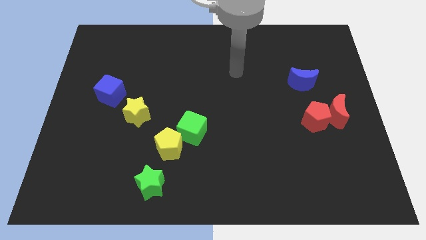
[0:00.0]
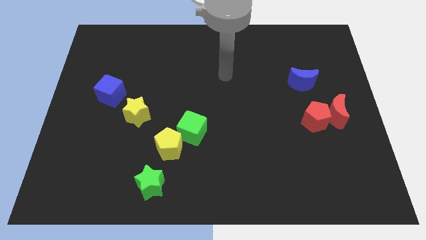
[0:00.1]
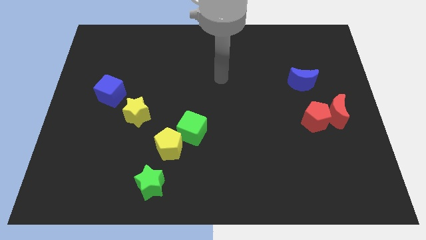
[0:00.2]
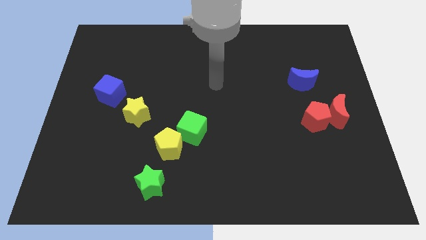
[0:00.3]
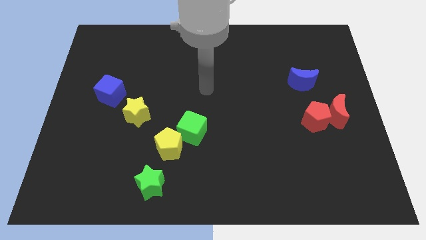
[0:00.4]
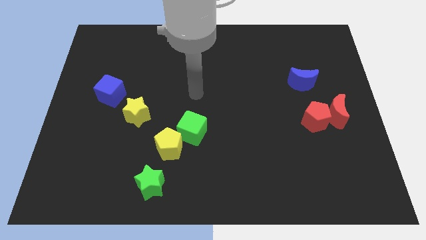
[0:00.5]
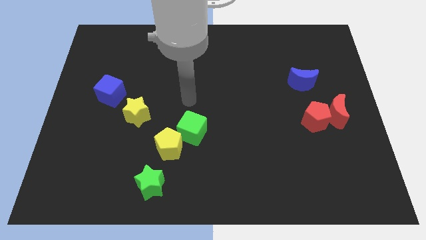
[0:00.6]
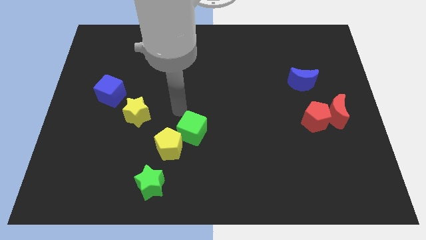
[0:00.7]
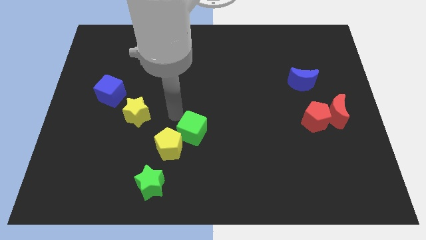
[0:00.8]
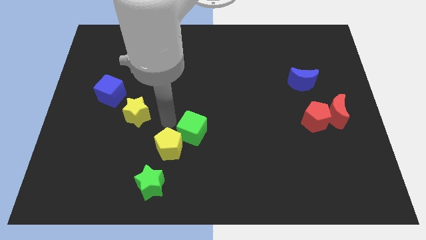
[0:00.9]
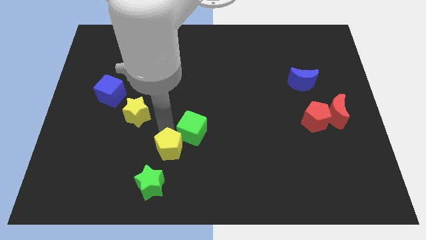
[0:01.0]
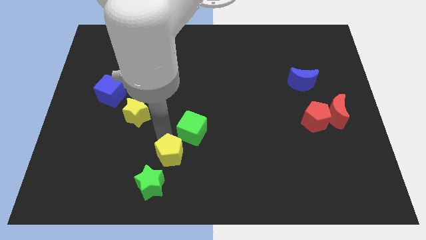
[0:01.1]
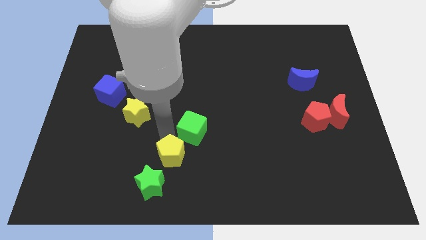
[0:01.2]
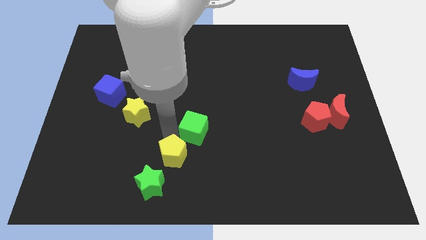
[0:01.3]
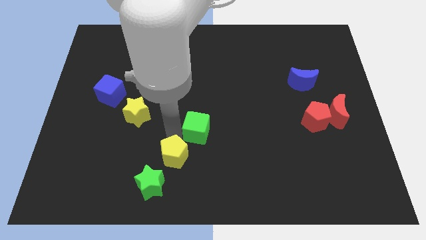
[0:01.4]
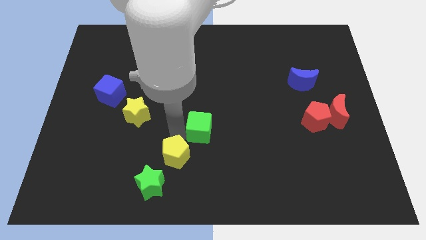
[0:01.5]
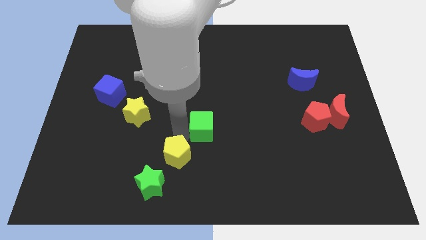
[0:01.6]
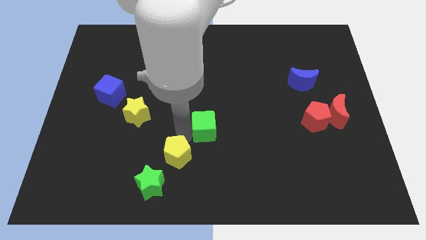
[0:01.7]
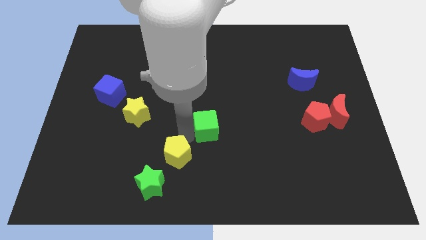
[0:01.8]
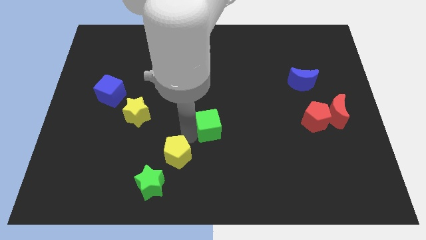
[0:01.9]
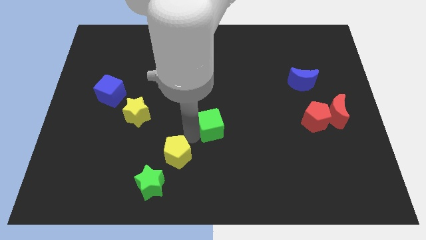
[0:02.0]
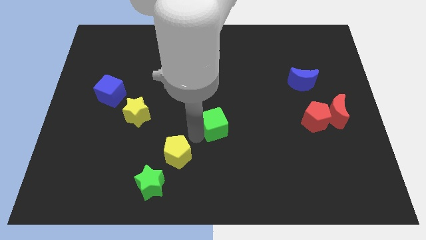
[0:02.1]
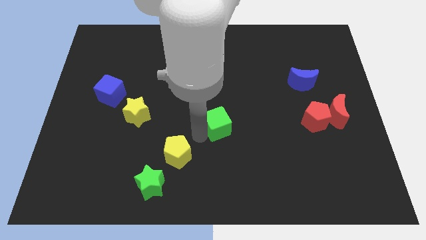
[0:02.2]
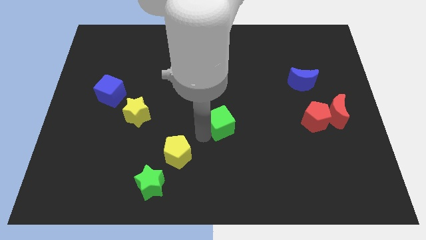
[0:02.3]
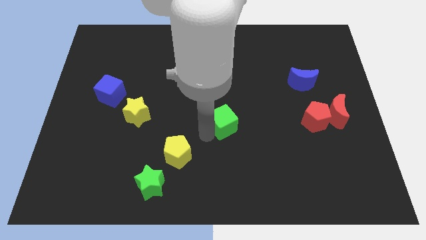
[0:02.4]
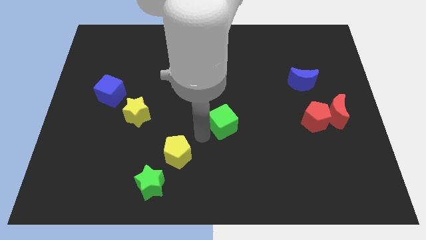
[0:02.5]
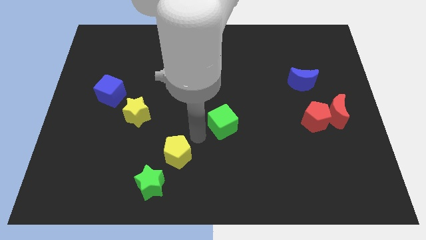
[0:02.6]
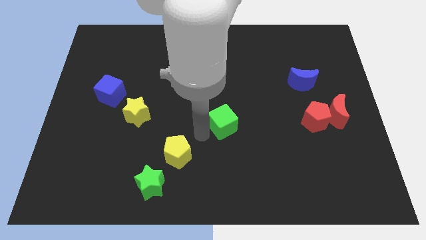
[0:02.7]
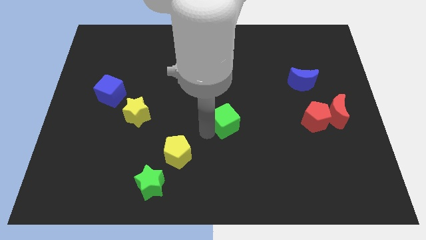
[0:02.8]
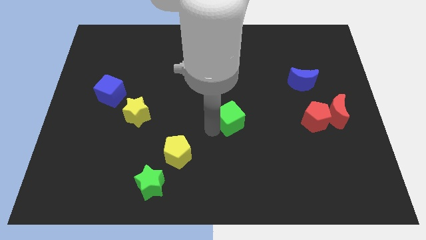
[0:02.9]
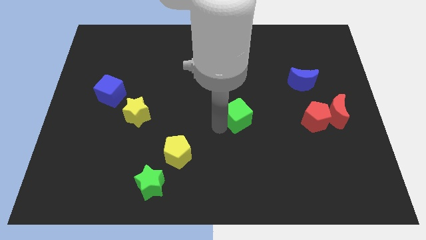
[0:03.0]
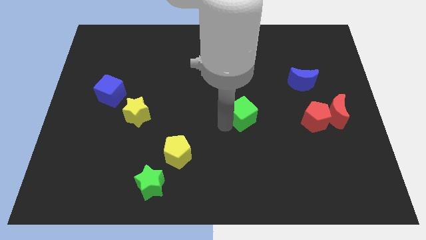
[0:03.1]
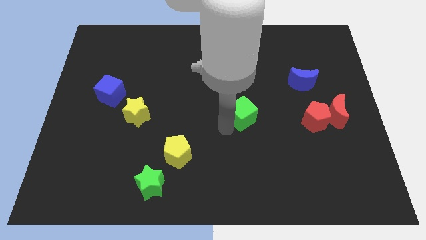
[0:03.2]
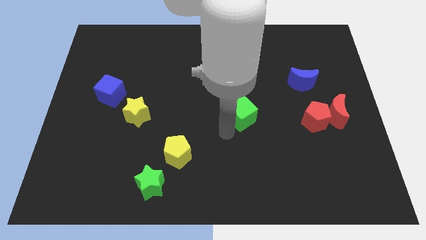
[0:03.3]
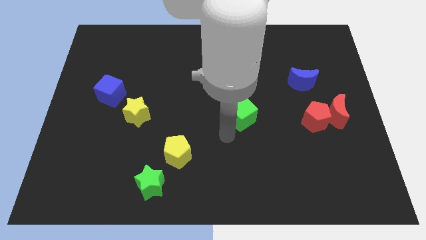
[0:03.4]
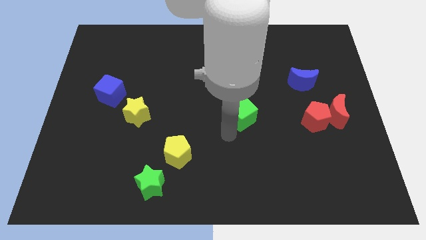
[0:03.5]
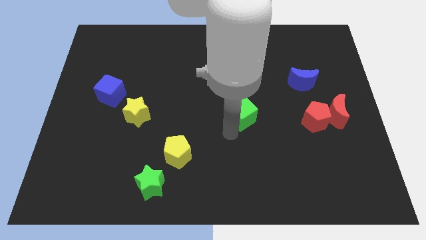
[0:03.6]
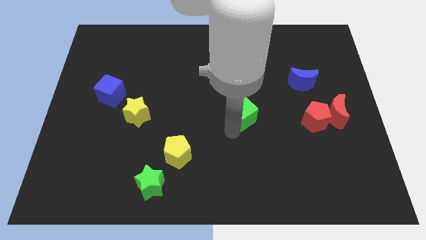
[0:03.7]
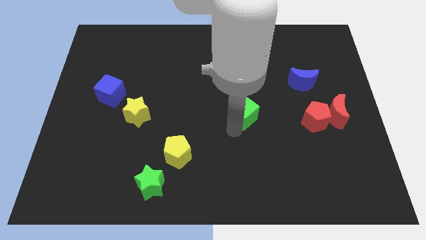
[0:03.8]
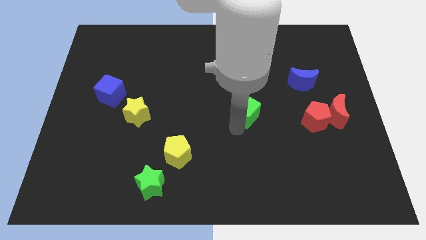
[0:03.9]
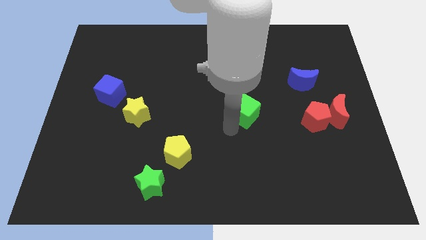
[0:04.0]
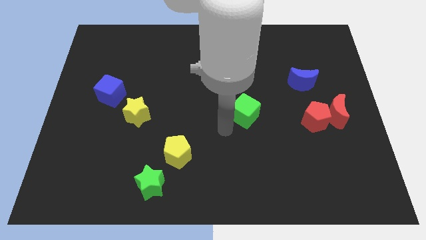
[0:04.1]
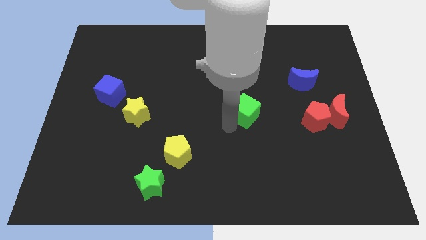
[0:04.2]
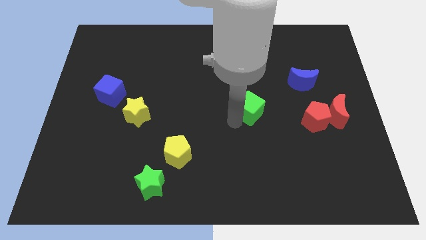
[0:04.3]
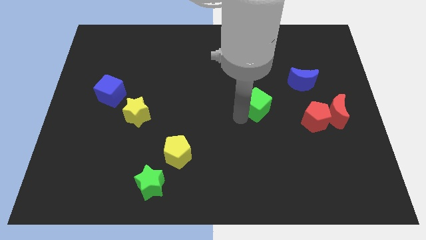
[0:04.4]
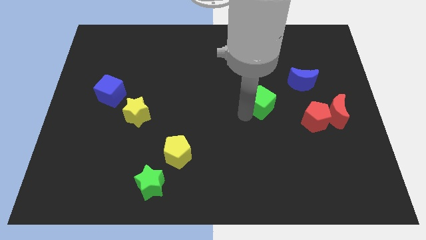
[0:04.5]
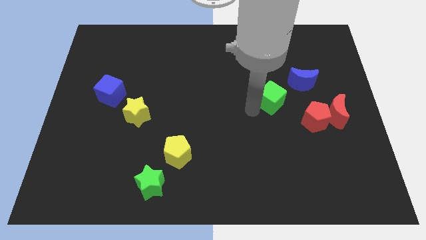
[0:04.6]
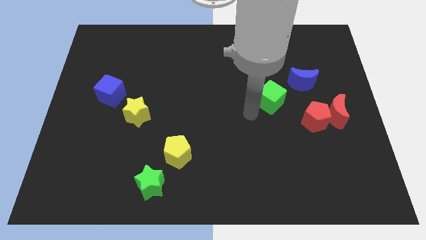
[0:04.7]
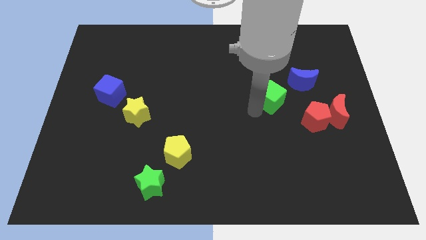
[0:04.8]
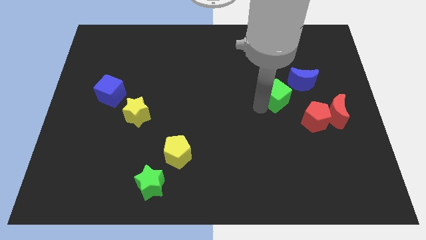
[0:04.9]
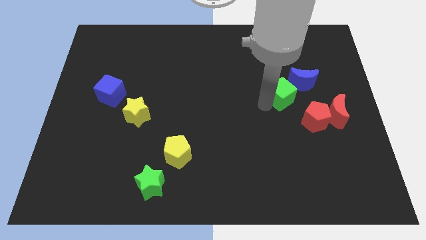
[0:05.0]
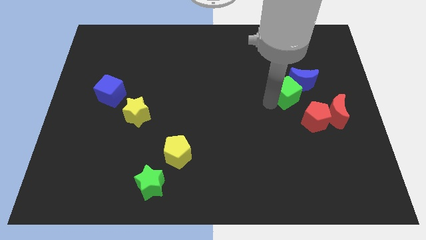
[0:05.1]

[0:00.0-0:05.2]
push the green cube to the blue moon

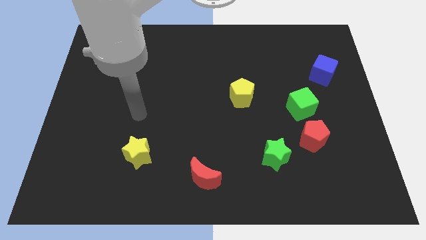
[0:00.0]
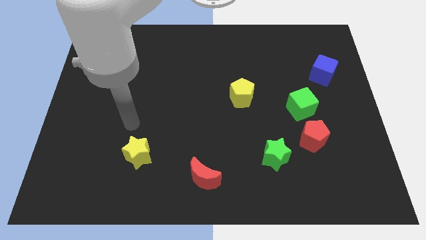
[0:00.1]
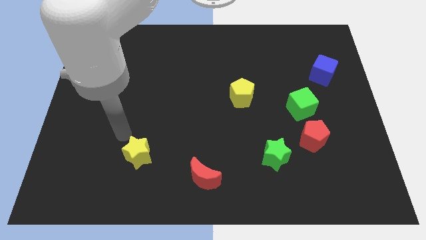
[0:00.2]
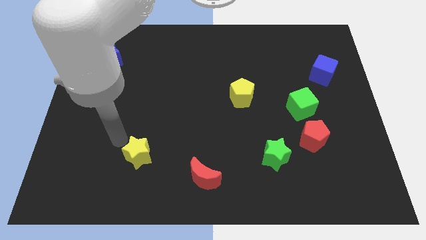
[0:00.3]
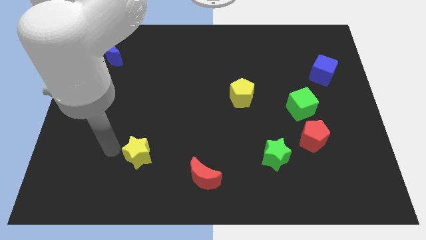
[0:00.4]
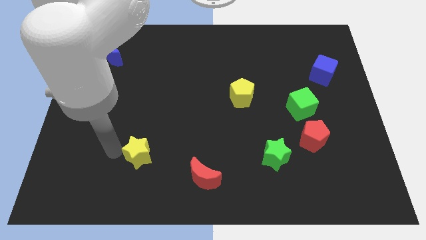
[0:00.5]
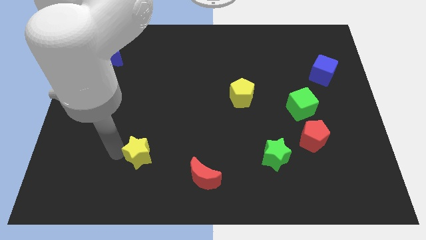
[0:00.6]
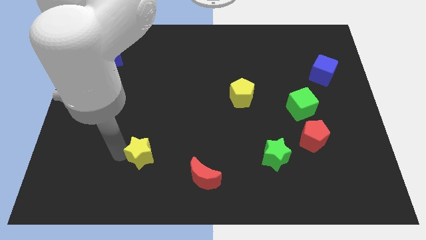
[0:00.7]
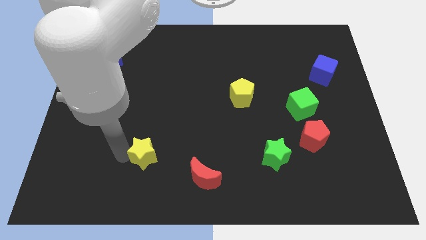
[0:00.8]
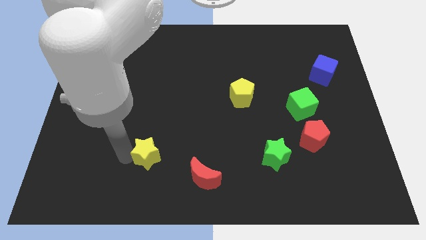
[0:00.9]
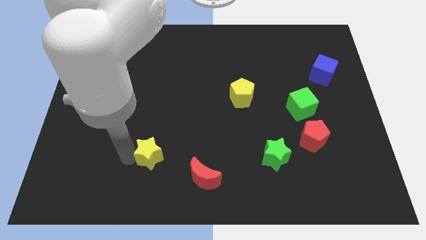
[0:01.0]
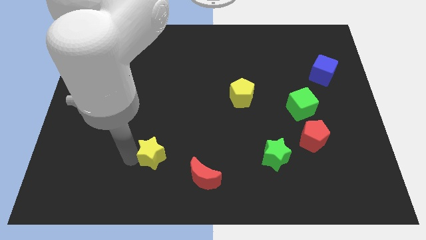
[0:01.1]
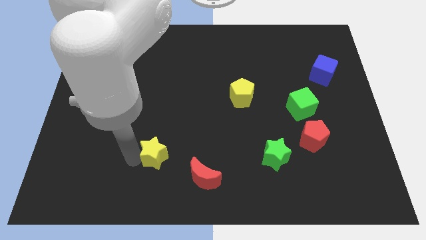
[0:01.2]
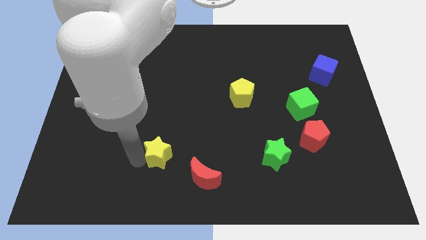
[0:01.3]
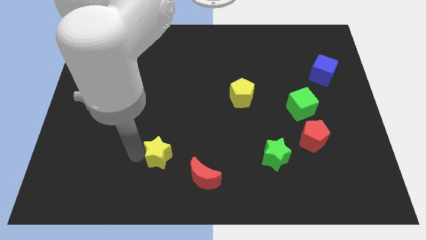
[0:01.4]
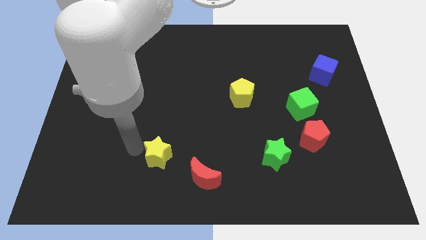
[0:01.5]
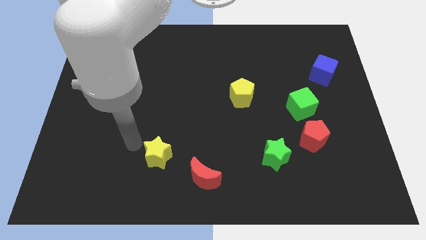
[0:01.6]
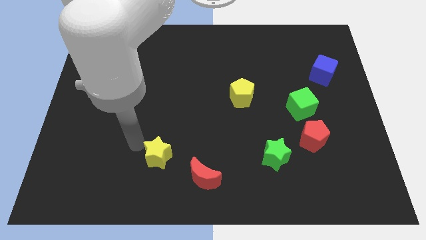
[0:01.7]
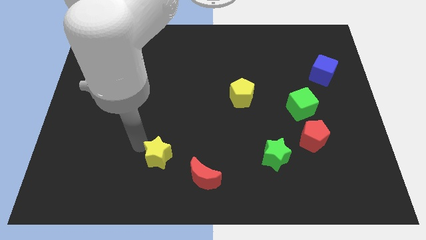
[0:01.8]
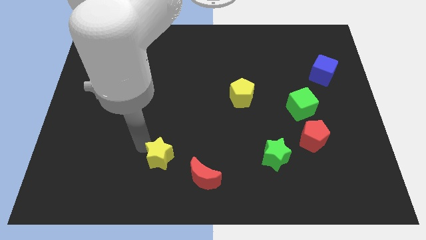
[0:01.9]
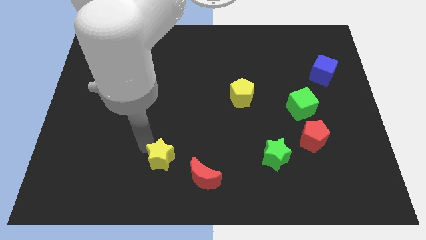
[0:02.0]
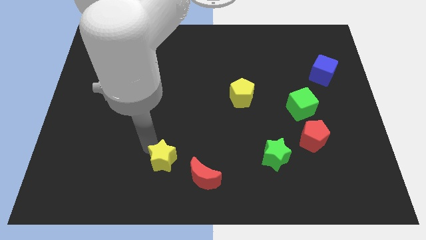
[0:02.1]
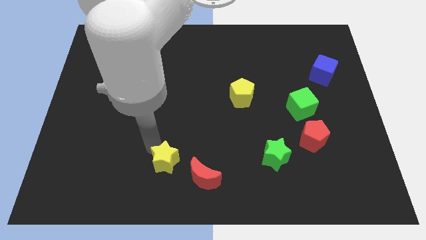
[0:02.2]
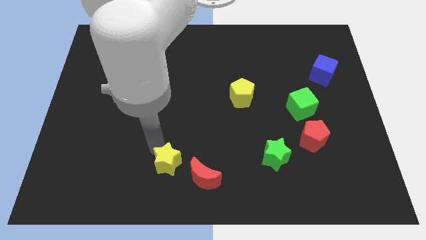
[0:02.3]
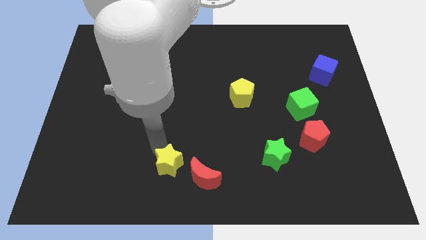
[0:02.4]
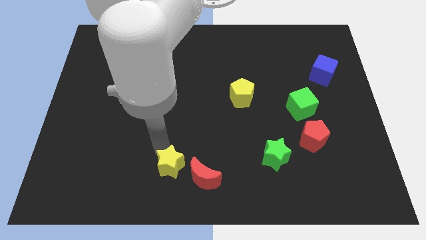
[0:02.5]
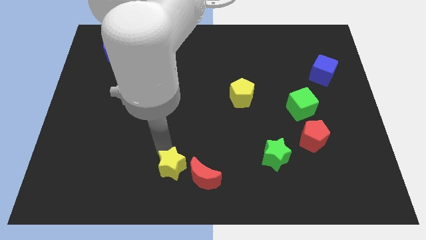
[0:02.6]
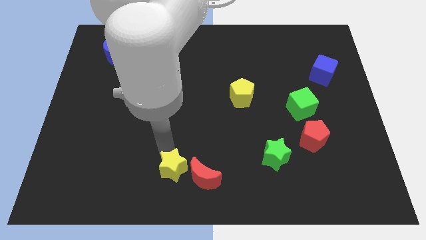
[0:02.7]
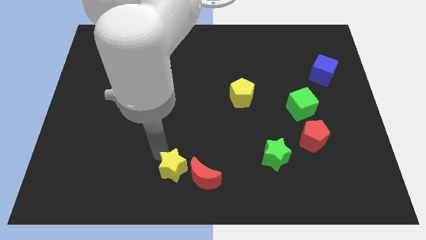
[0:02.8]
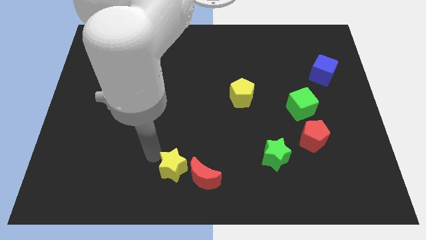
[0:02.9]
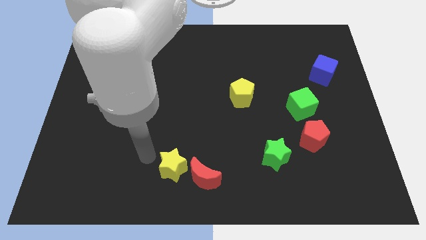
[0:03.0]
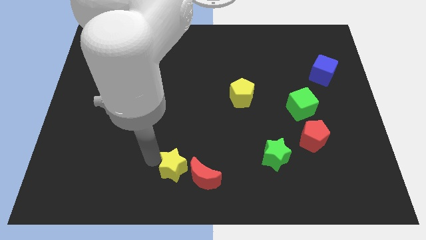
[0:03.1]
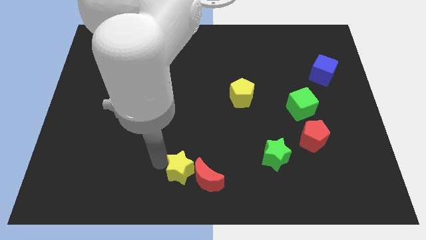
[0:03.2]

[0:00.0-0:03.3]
push the yellow star close to the red moon
